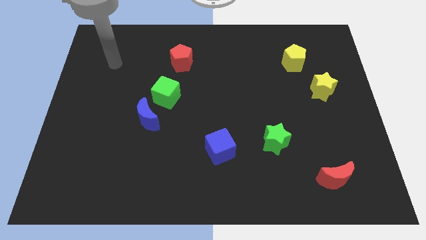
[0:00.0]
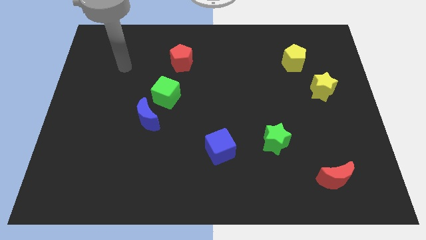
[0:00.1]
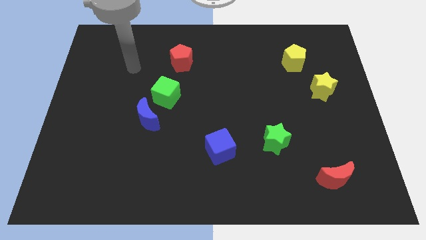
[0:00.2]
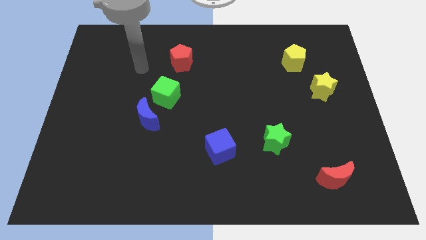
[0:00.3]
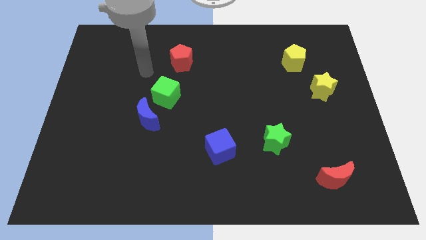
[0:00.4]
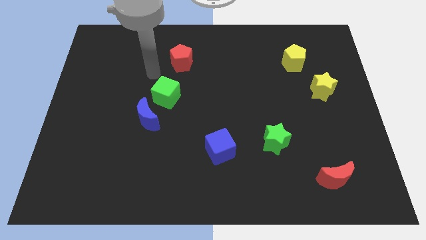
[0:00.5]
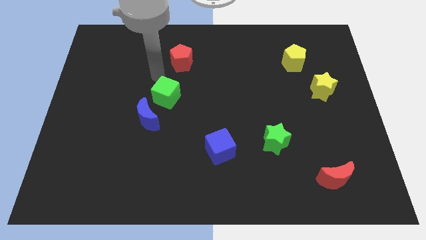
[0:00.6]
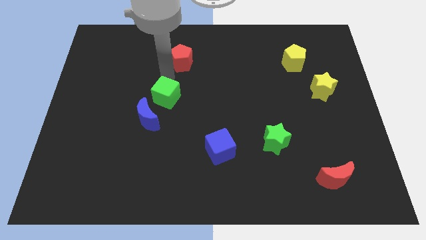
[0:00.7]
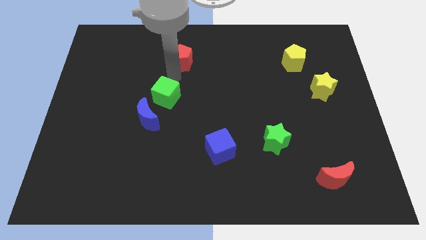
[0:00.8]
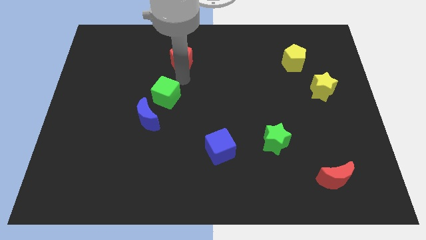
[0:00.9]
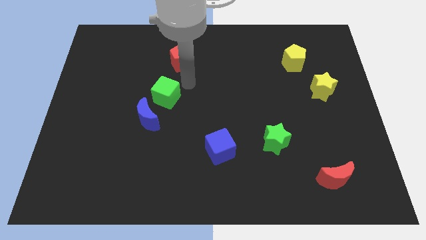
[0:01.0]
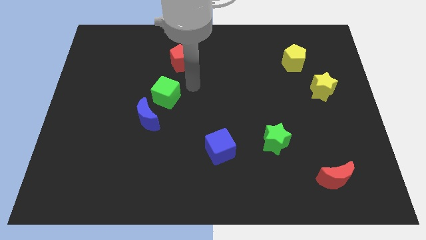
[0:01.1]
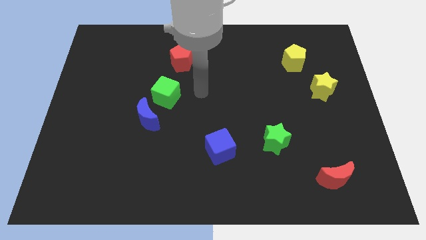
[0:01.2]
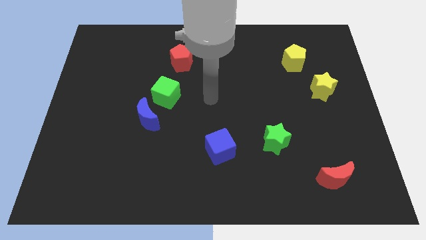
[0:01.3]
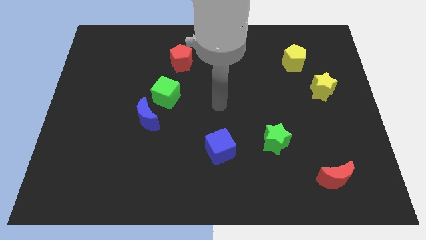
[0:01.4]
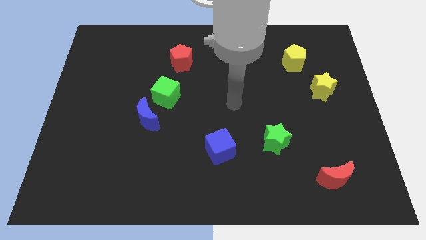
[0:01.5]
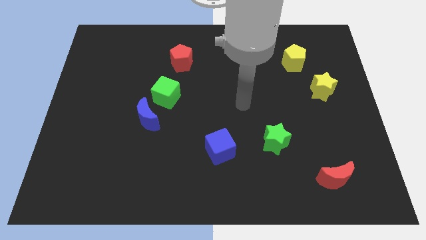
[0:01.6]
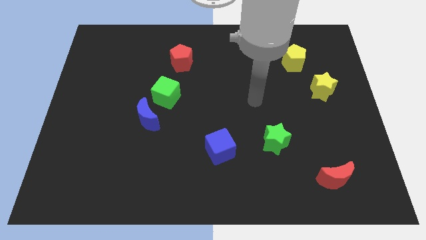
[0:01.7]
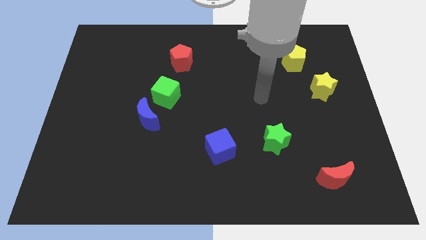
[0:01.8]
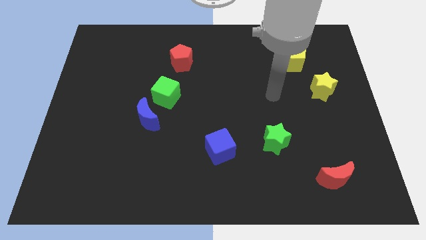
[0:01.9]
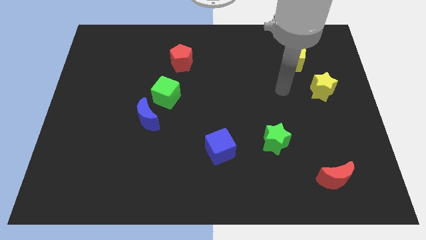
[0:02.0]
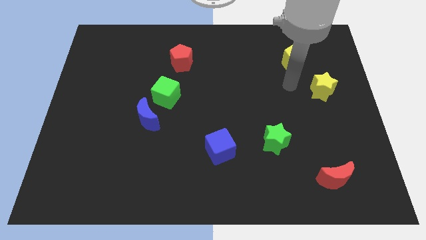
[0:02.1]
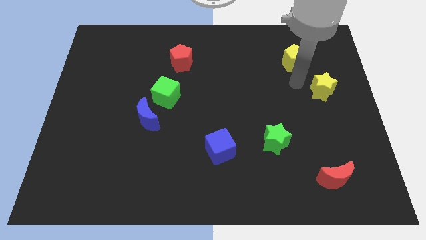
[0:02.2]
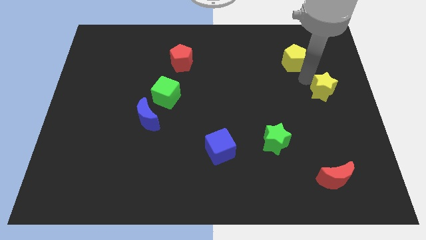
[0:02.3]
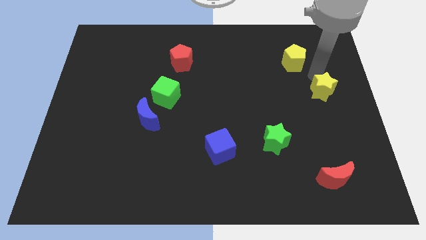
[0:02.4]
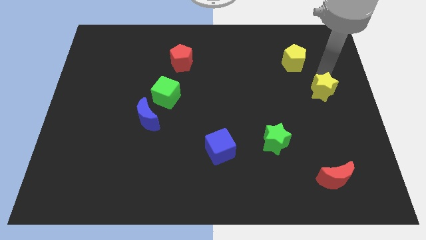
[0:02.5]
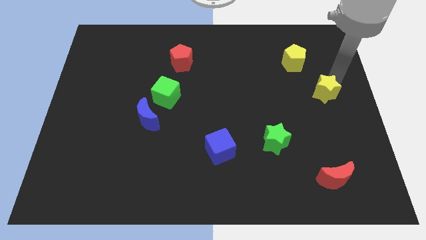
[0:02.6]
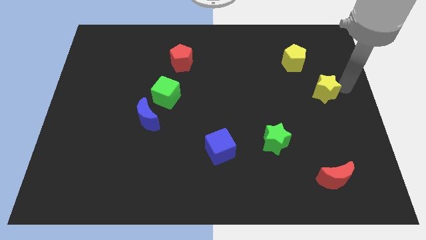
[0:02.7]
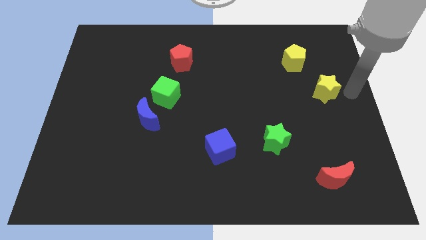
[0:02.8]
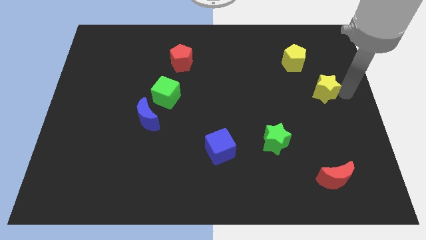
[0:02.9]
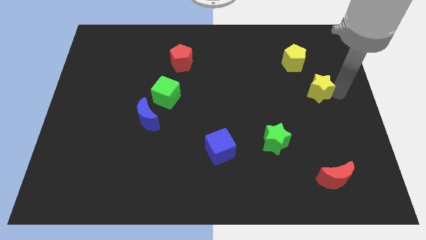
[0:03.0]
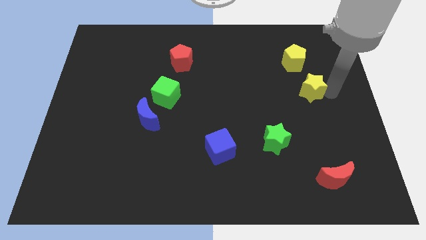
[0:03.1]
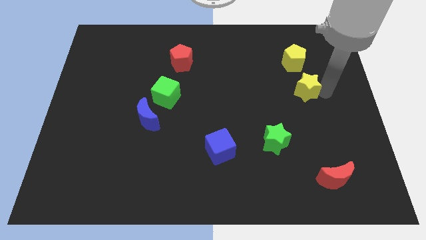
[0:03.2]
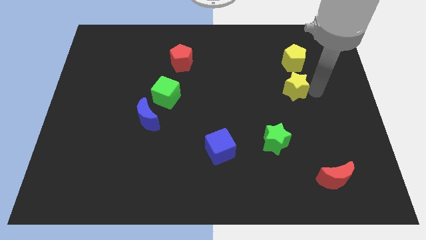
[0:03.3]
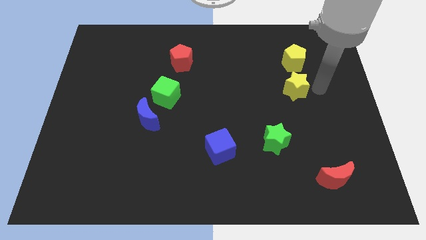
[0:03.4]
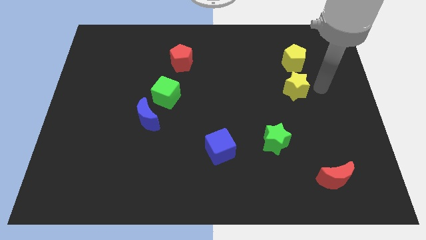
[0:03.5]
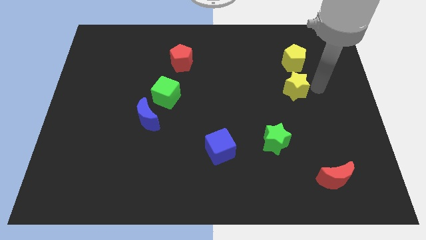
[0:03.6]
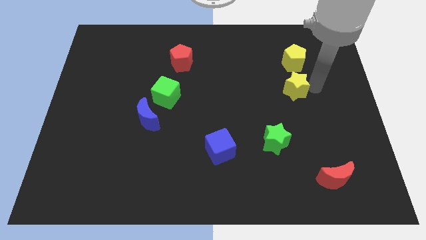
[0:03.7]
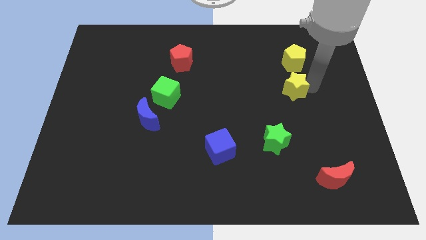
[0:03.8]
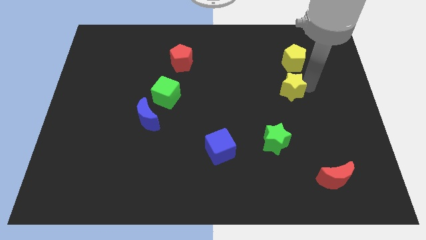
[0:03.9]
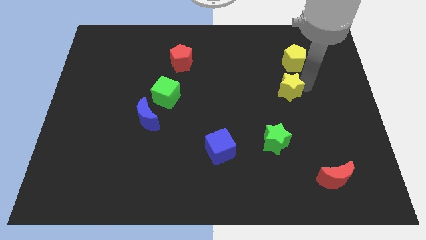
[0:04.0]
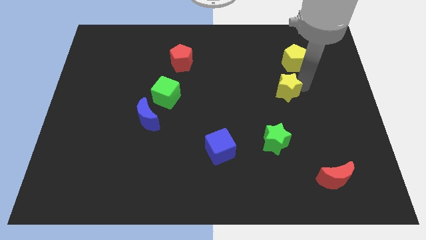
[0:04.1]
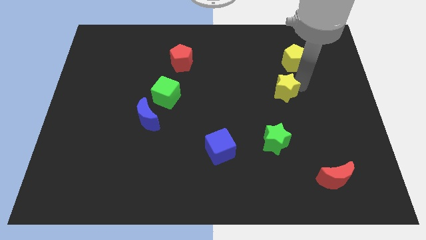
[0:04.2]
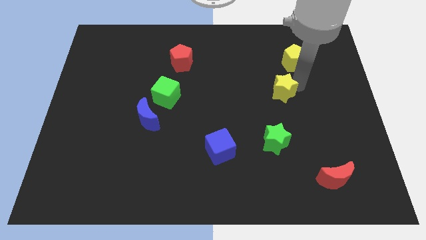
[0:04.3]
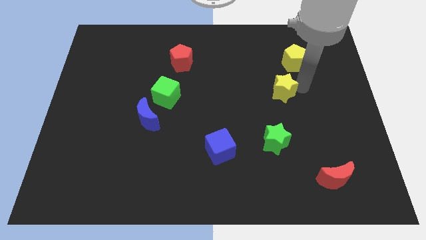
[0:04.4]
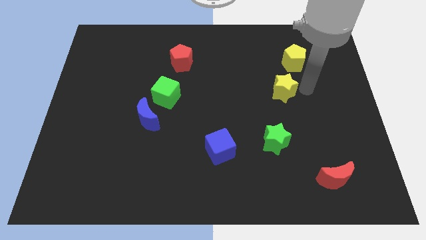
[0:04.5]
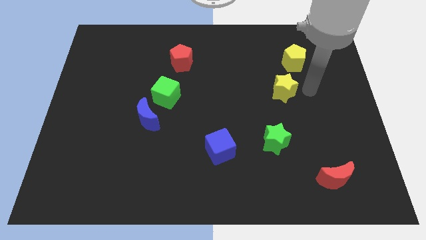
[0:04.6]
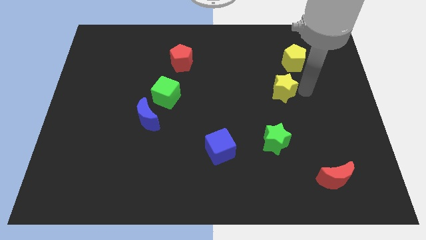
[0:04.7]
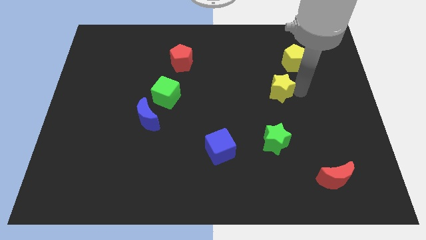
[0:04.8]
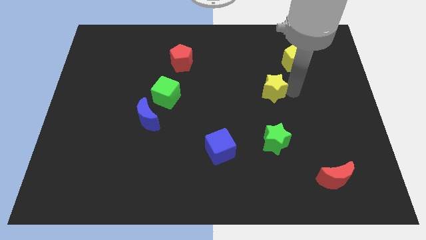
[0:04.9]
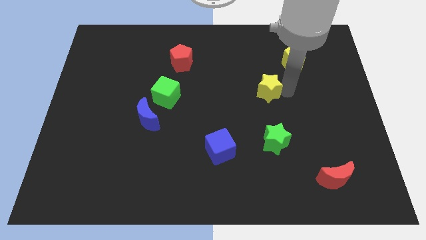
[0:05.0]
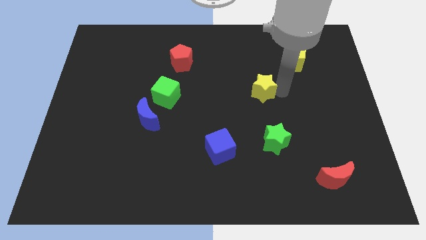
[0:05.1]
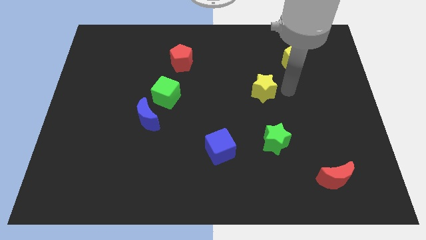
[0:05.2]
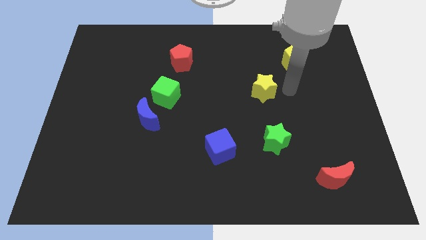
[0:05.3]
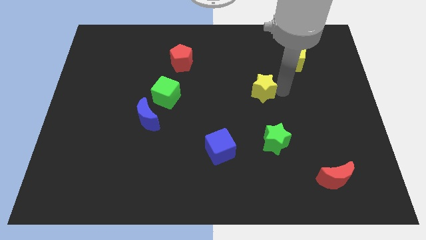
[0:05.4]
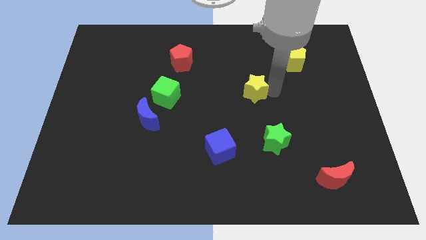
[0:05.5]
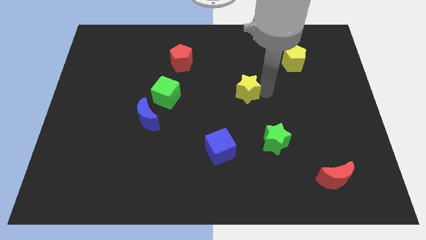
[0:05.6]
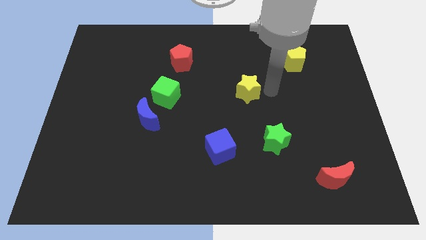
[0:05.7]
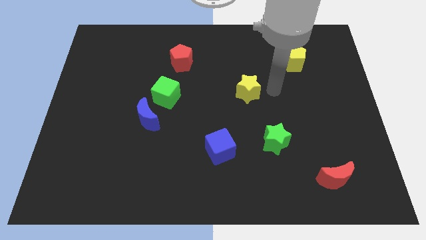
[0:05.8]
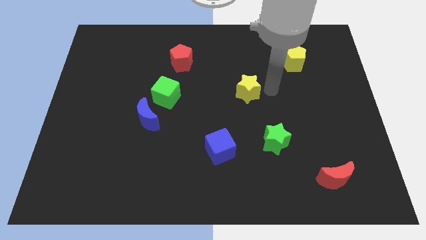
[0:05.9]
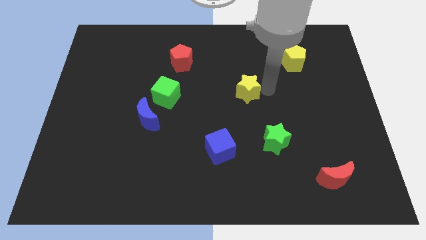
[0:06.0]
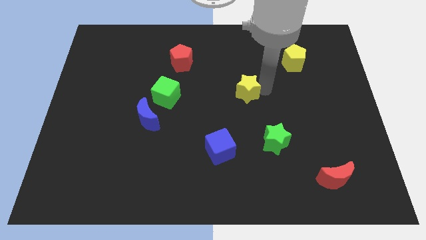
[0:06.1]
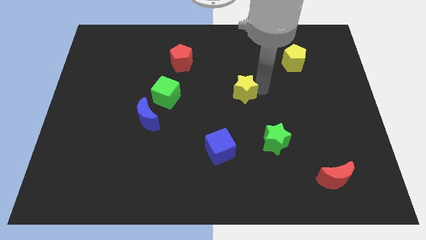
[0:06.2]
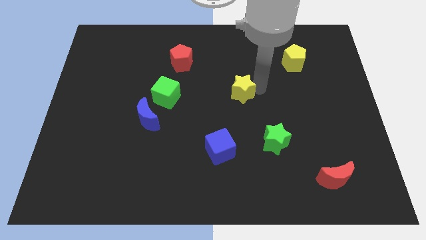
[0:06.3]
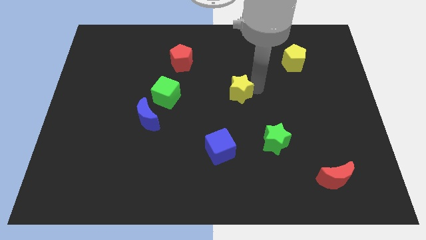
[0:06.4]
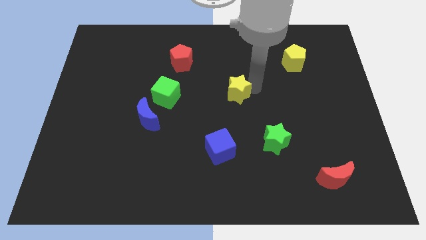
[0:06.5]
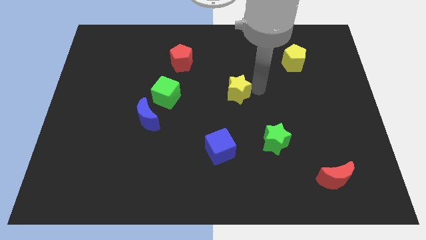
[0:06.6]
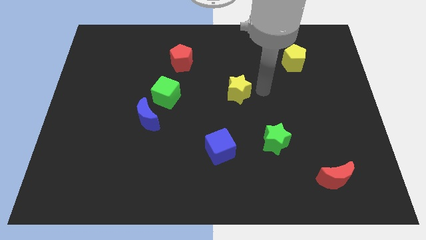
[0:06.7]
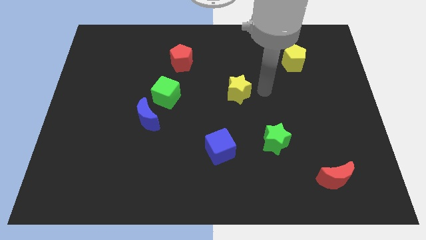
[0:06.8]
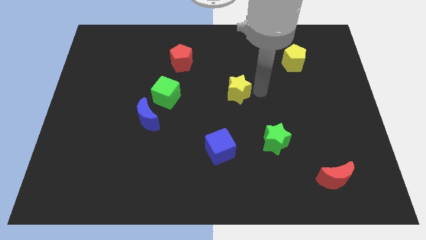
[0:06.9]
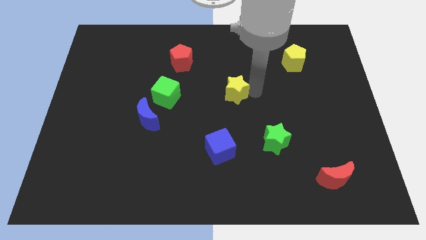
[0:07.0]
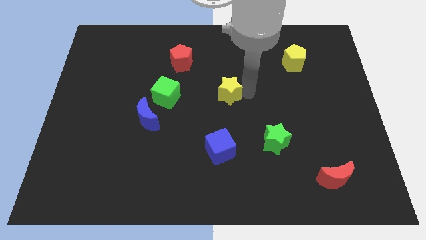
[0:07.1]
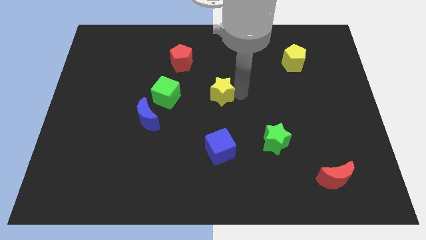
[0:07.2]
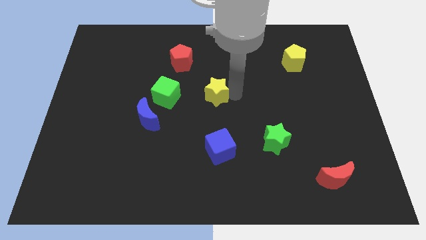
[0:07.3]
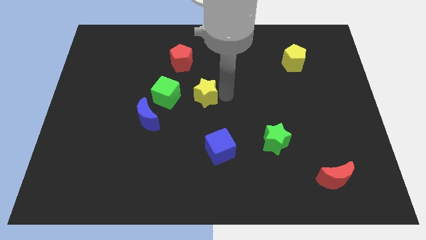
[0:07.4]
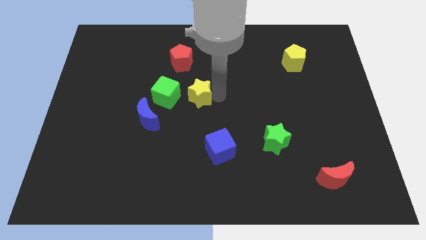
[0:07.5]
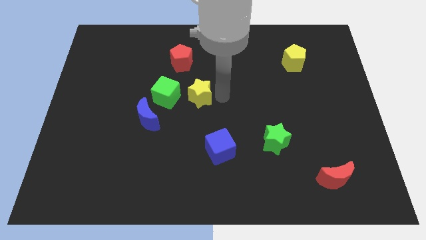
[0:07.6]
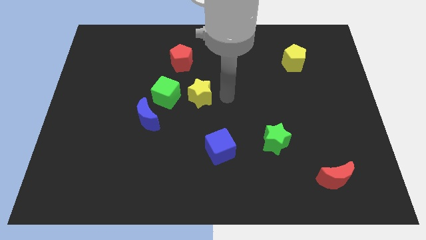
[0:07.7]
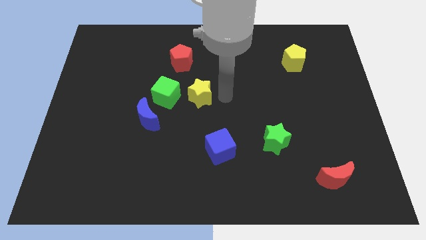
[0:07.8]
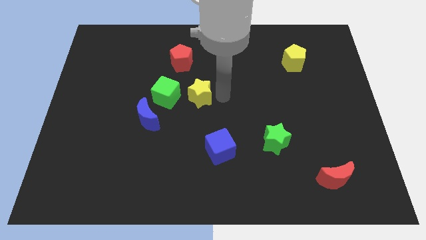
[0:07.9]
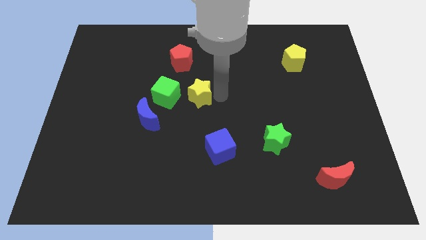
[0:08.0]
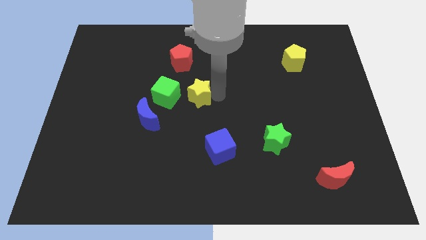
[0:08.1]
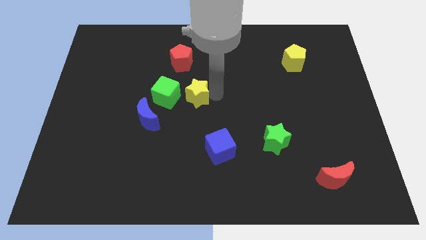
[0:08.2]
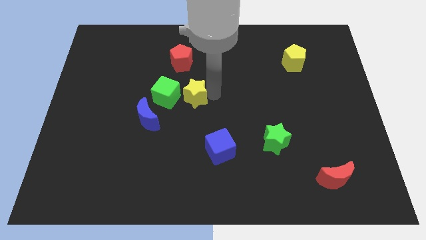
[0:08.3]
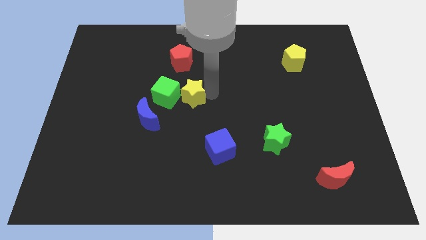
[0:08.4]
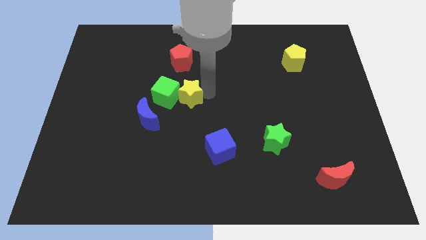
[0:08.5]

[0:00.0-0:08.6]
push the yellow star towards the green cube
